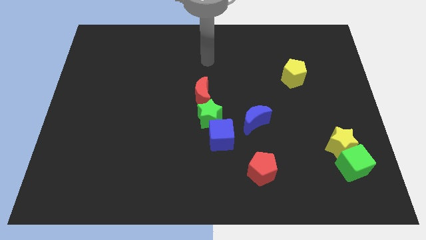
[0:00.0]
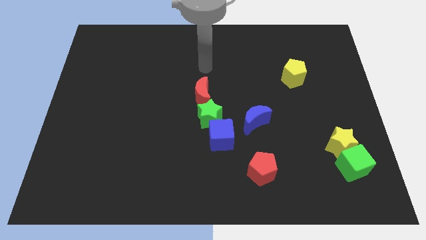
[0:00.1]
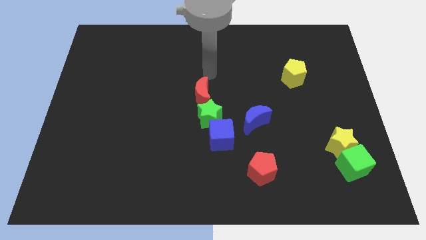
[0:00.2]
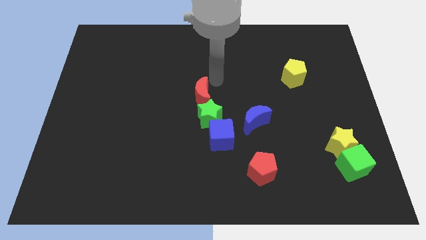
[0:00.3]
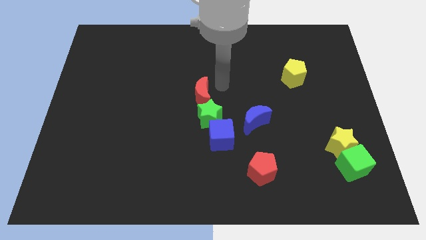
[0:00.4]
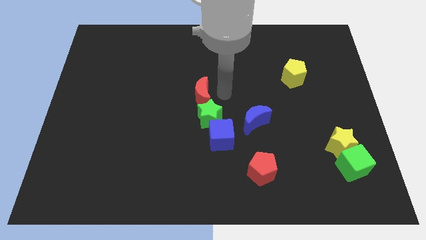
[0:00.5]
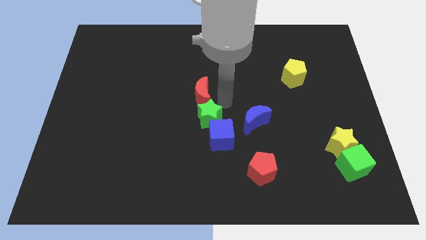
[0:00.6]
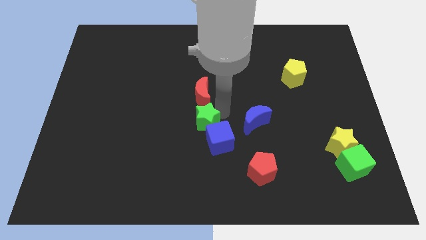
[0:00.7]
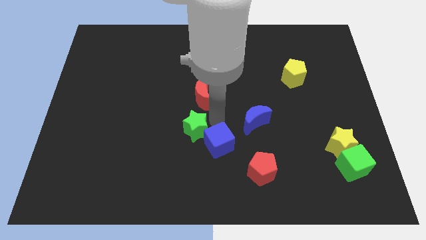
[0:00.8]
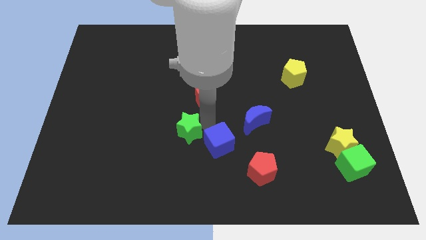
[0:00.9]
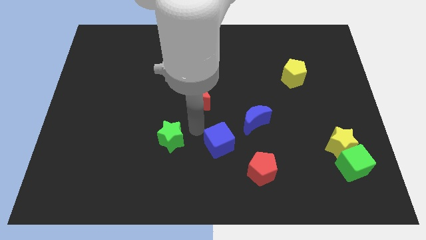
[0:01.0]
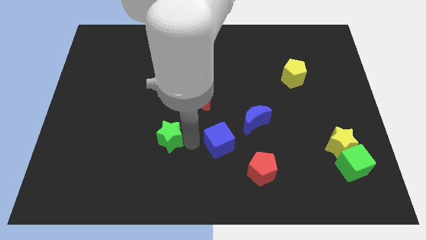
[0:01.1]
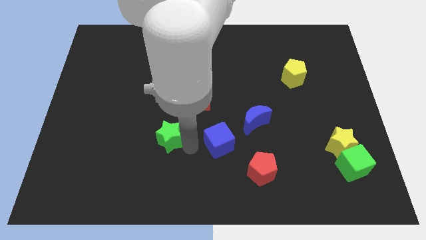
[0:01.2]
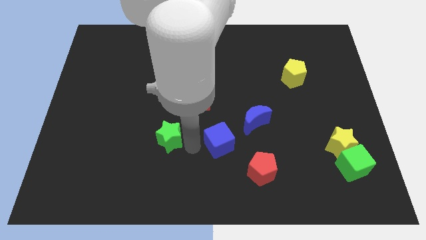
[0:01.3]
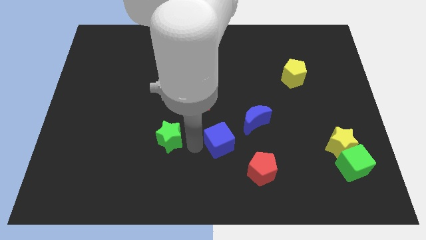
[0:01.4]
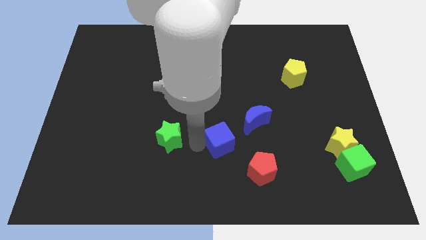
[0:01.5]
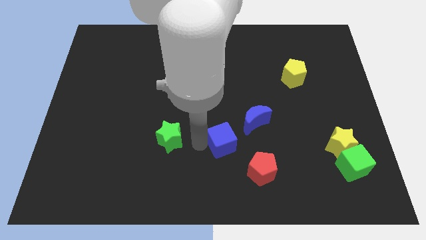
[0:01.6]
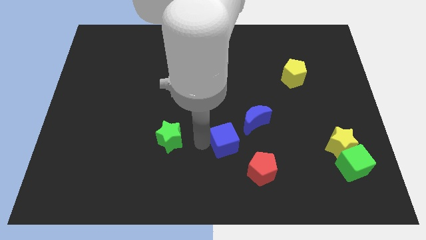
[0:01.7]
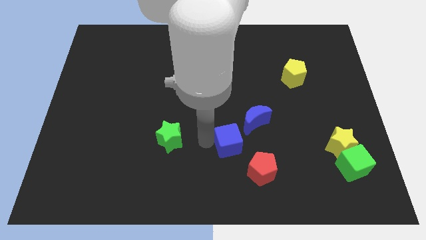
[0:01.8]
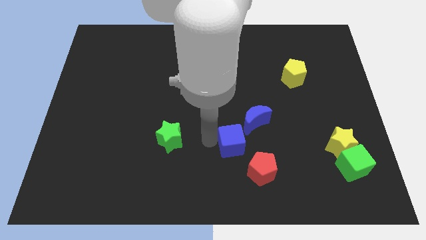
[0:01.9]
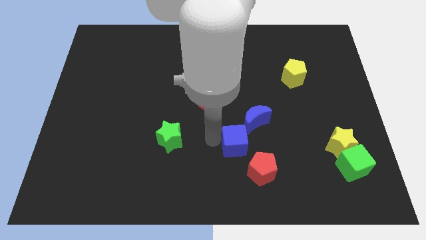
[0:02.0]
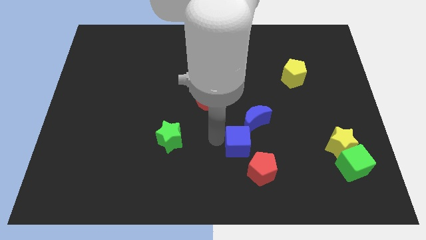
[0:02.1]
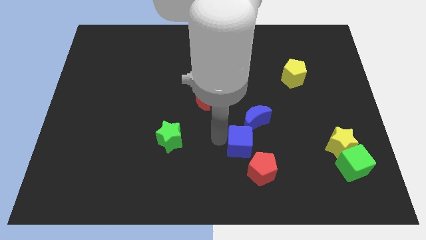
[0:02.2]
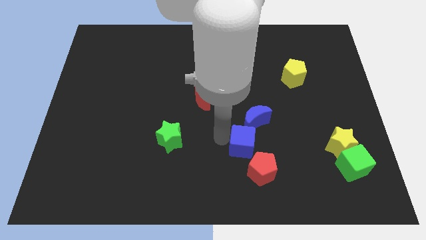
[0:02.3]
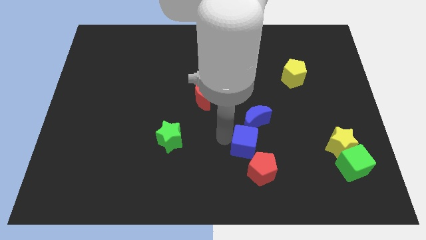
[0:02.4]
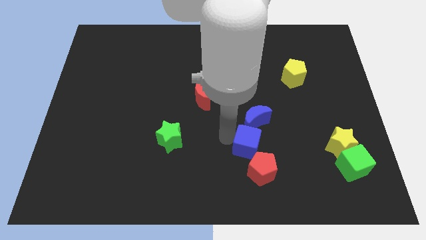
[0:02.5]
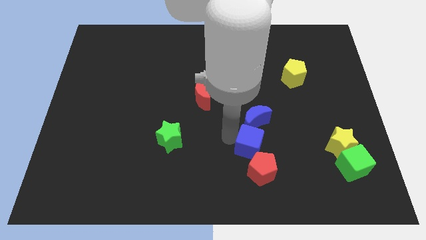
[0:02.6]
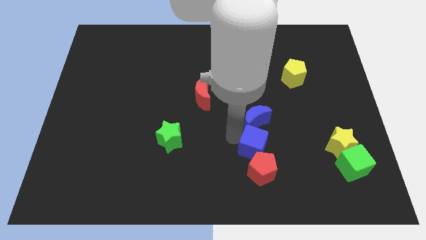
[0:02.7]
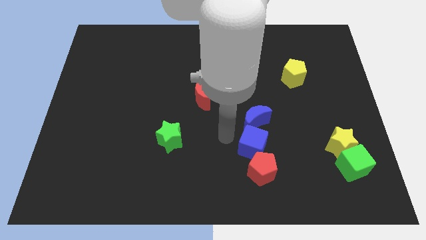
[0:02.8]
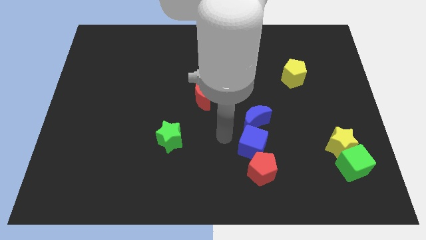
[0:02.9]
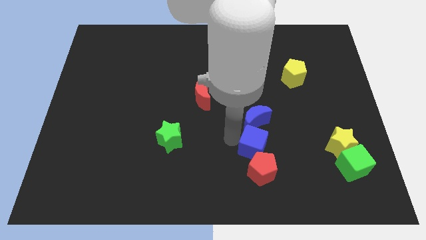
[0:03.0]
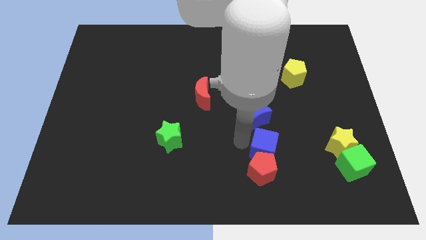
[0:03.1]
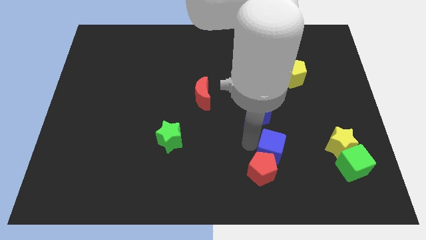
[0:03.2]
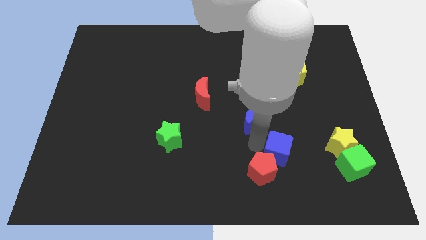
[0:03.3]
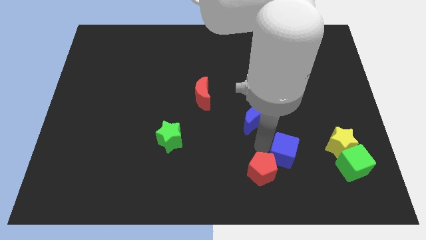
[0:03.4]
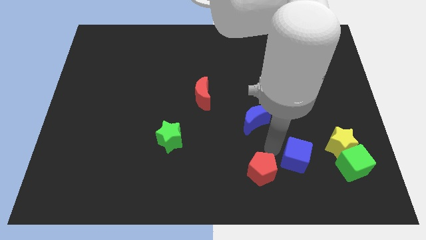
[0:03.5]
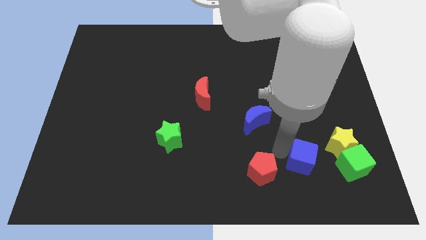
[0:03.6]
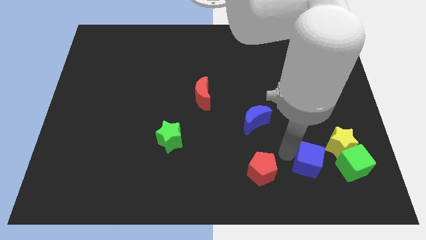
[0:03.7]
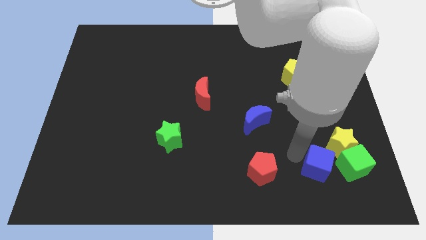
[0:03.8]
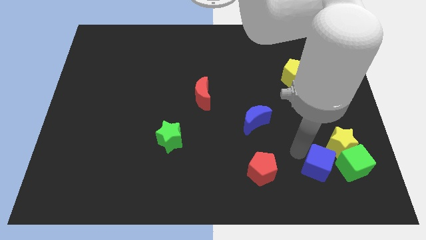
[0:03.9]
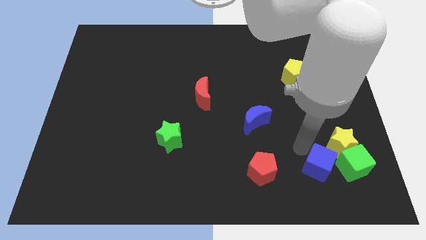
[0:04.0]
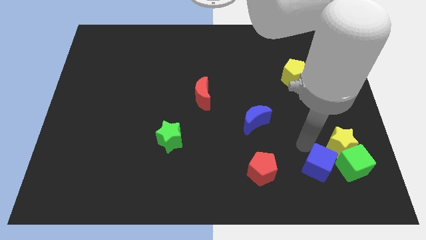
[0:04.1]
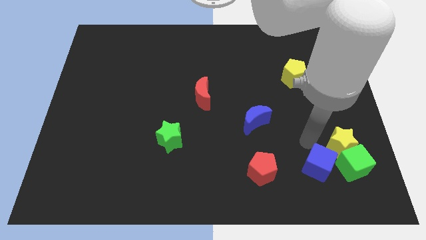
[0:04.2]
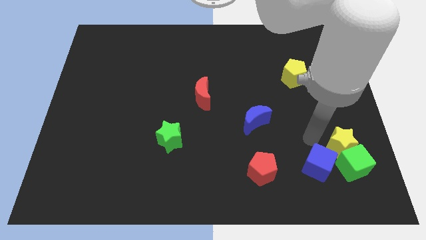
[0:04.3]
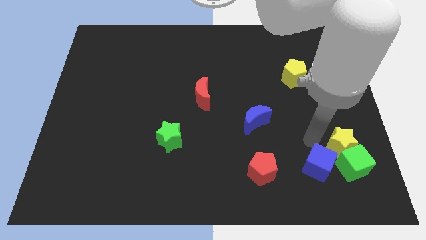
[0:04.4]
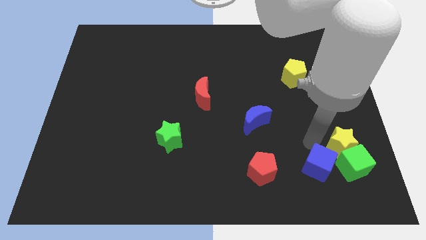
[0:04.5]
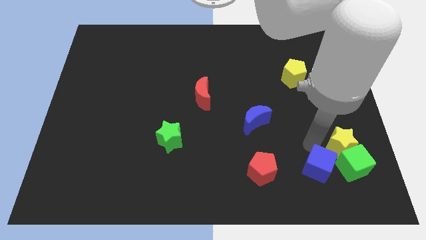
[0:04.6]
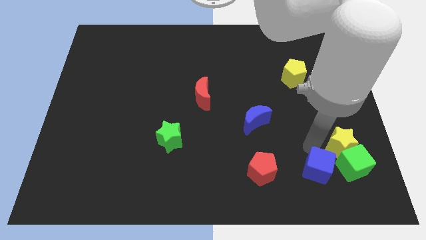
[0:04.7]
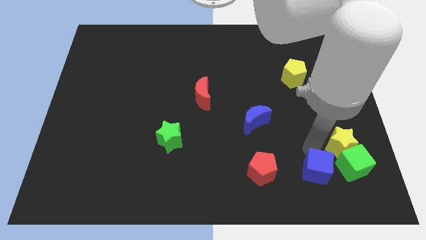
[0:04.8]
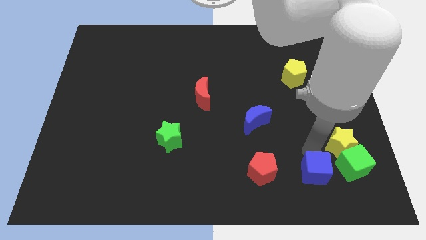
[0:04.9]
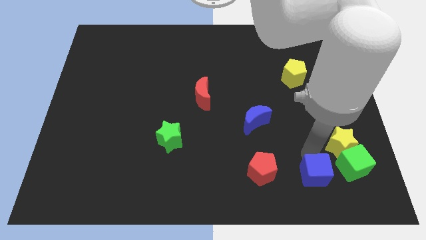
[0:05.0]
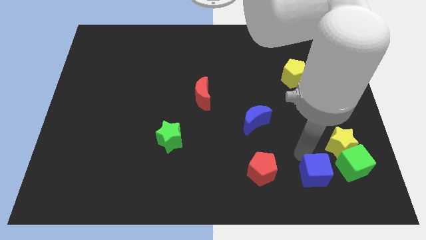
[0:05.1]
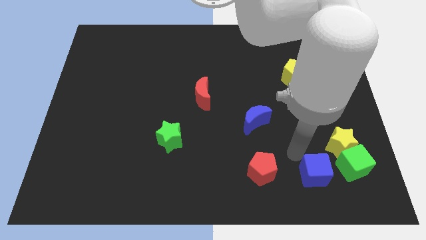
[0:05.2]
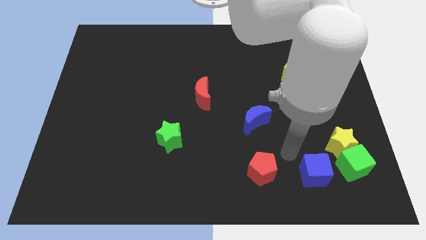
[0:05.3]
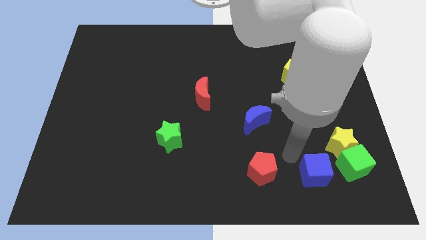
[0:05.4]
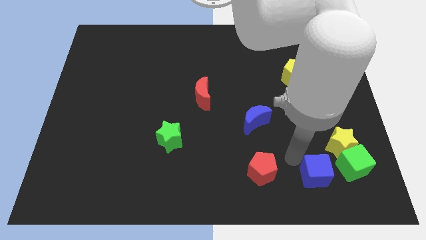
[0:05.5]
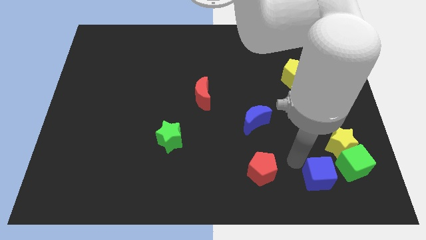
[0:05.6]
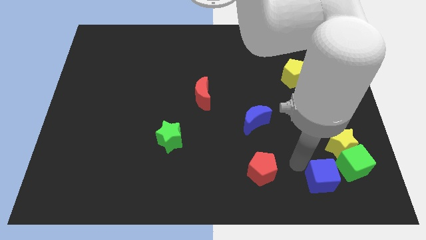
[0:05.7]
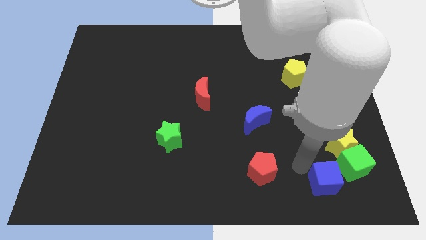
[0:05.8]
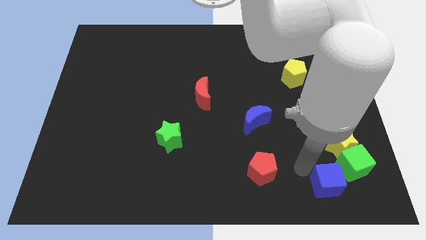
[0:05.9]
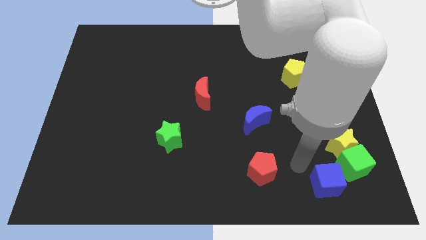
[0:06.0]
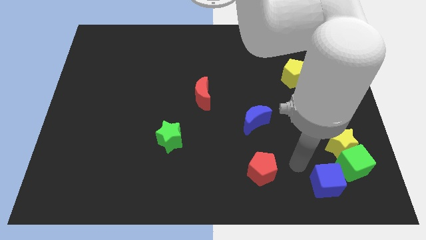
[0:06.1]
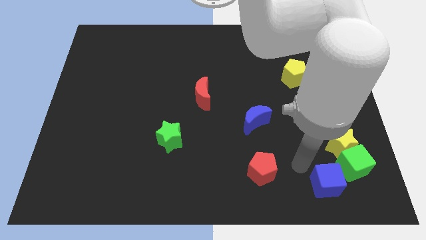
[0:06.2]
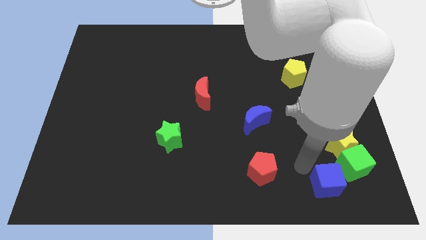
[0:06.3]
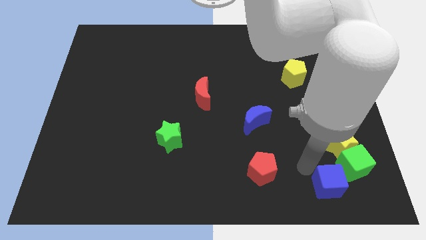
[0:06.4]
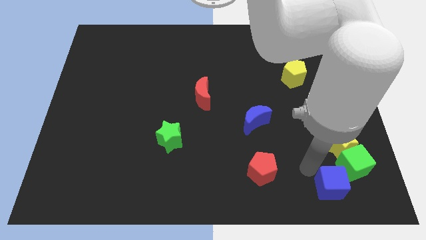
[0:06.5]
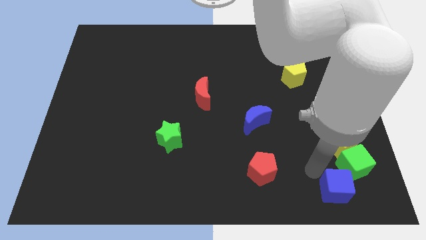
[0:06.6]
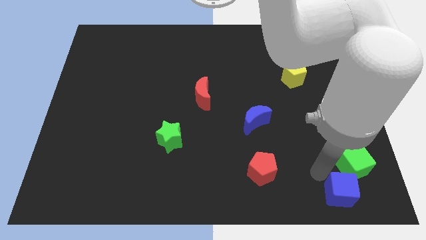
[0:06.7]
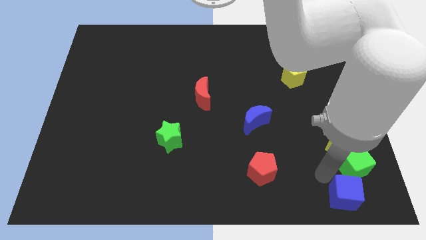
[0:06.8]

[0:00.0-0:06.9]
slide the blue cube to the lower right corner

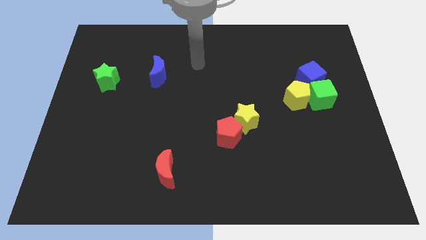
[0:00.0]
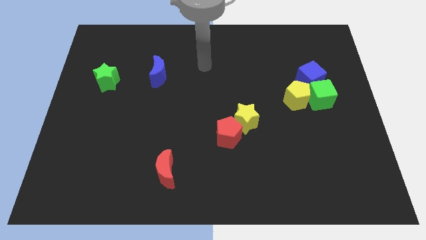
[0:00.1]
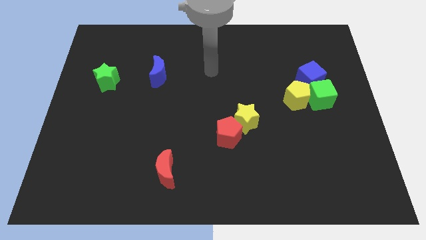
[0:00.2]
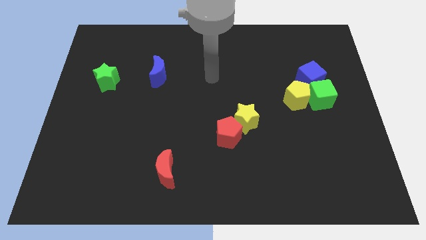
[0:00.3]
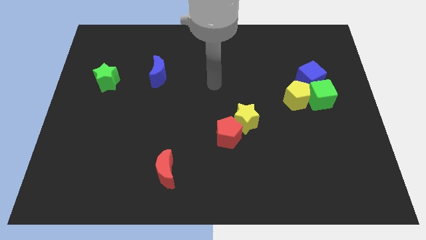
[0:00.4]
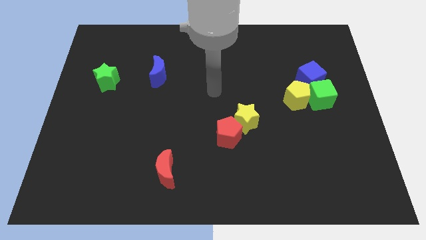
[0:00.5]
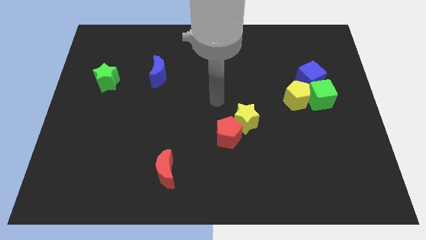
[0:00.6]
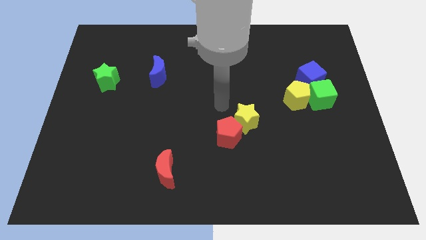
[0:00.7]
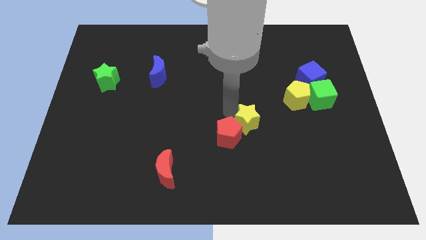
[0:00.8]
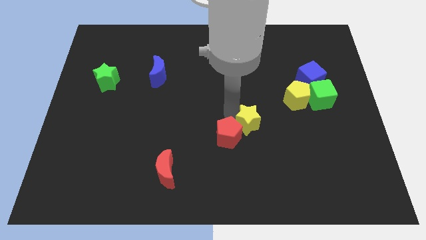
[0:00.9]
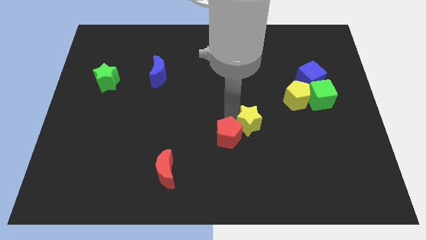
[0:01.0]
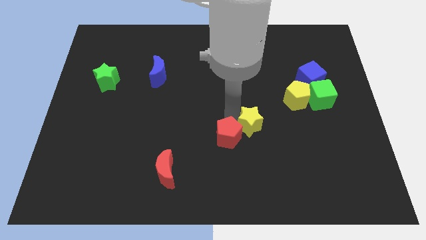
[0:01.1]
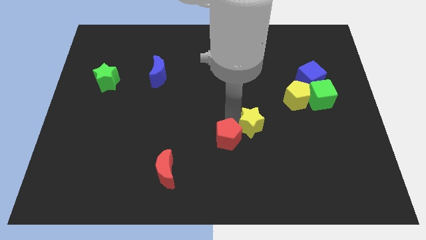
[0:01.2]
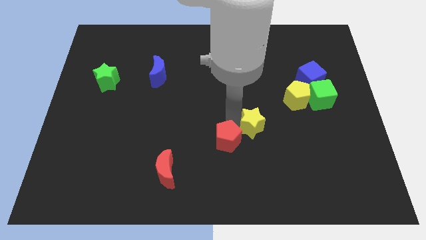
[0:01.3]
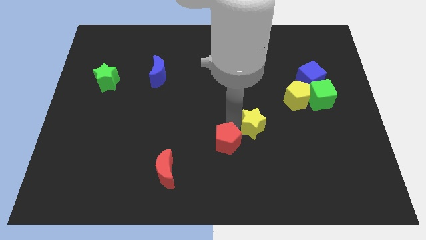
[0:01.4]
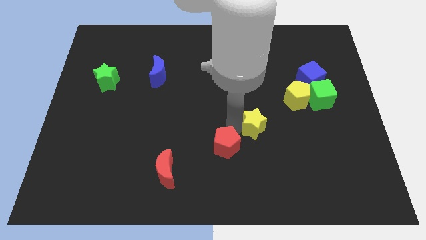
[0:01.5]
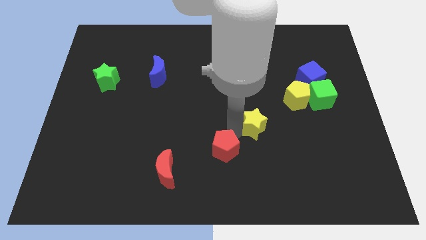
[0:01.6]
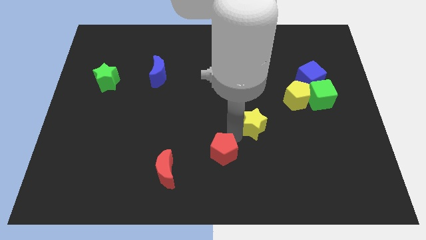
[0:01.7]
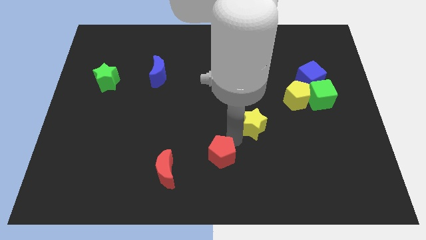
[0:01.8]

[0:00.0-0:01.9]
put the red pentagon to the bottom
